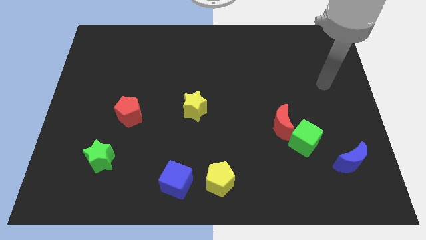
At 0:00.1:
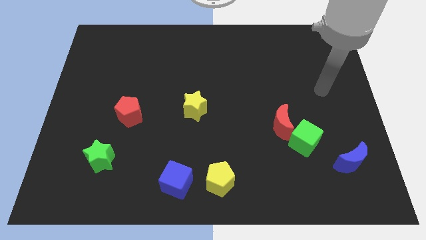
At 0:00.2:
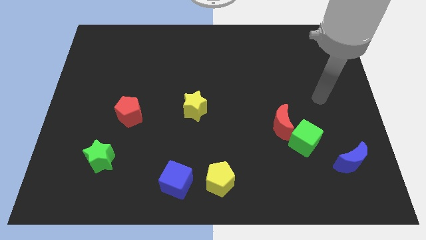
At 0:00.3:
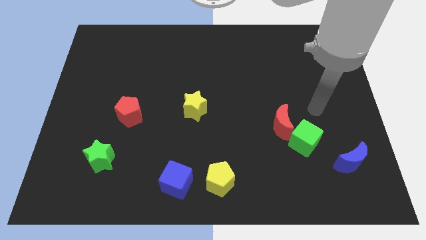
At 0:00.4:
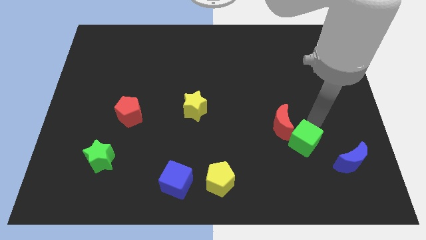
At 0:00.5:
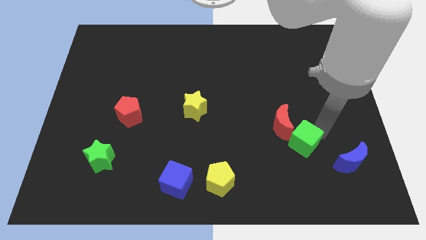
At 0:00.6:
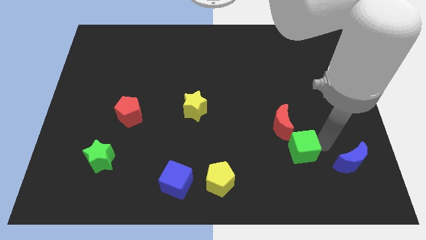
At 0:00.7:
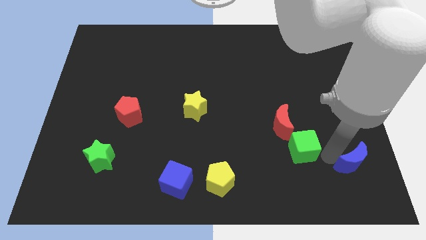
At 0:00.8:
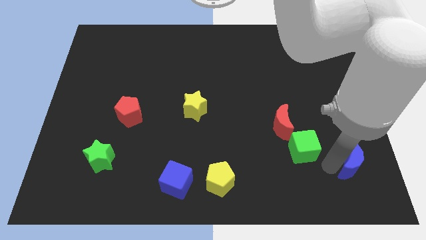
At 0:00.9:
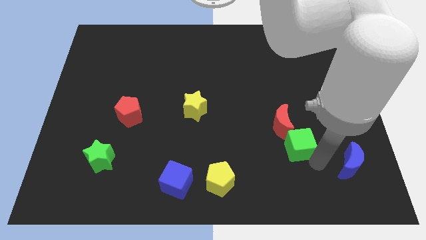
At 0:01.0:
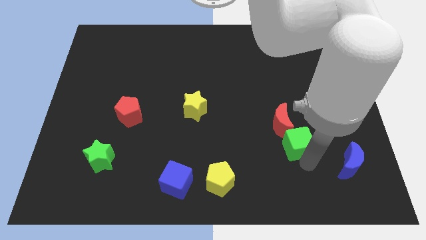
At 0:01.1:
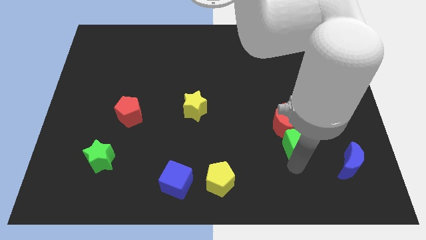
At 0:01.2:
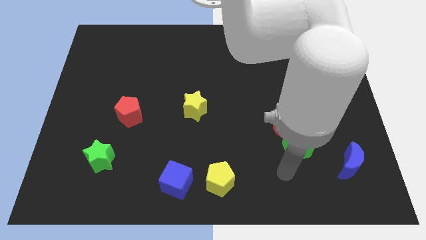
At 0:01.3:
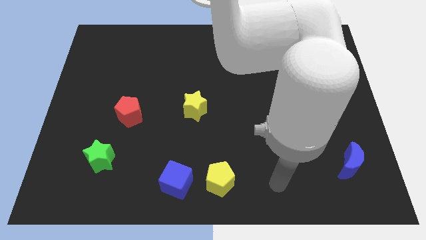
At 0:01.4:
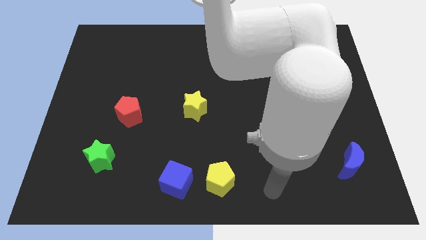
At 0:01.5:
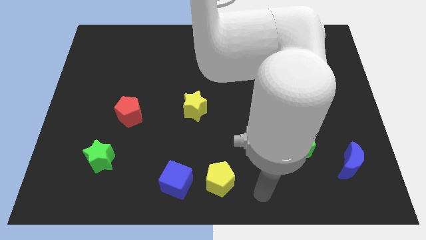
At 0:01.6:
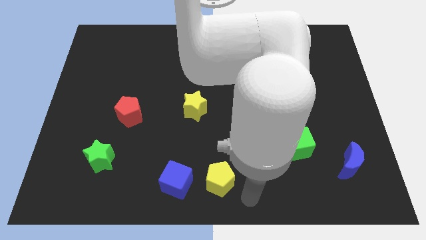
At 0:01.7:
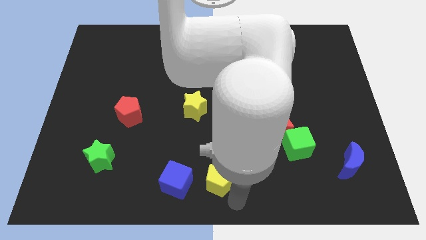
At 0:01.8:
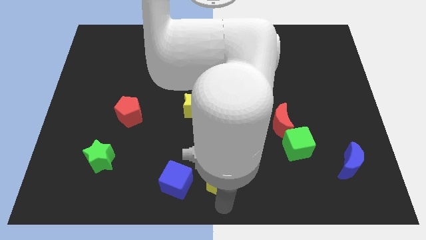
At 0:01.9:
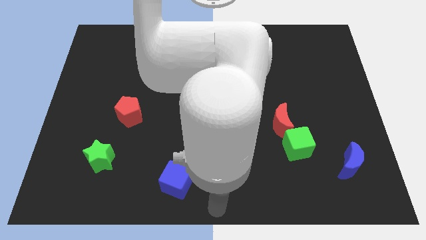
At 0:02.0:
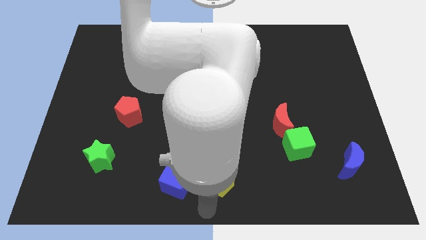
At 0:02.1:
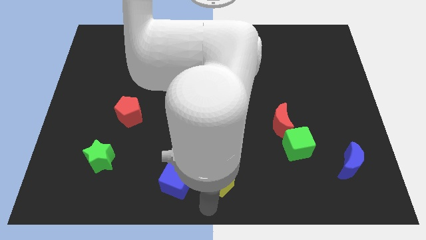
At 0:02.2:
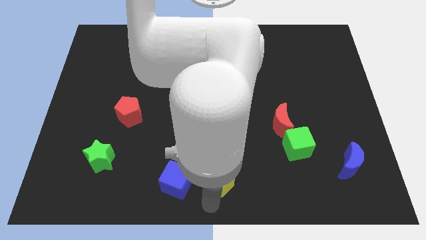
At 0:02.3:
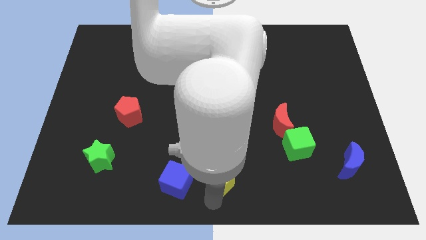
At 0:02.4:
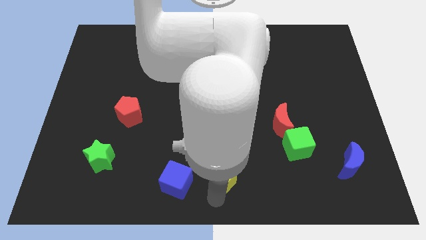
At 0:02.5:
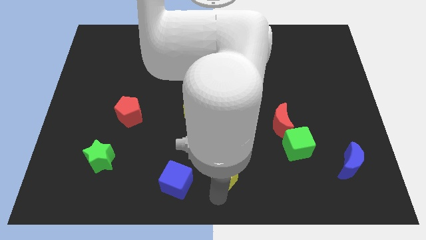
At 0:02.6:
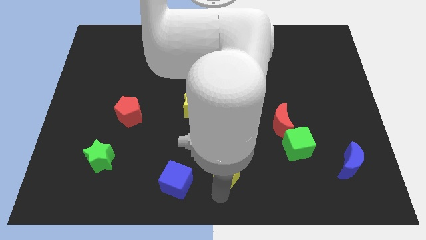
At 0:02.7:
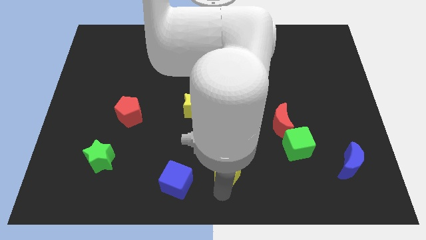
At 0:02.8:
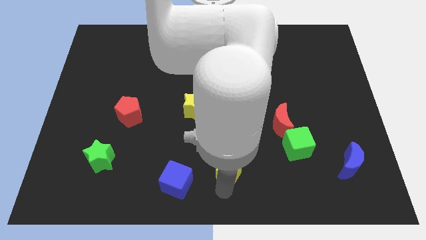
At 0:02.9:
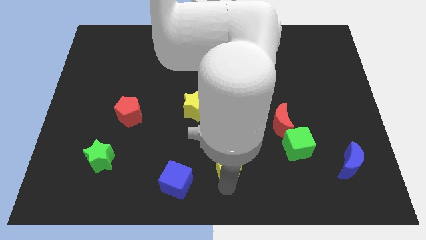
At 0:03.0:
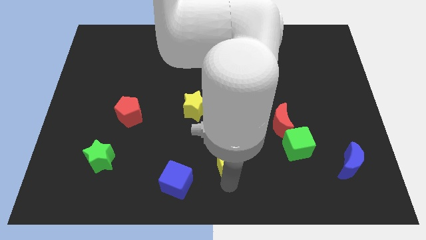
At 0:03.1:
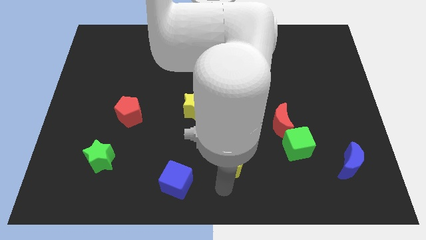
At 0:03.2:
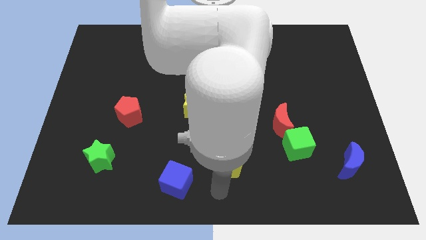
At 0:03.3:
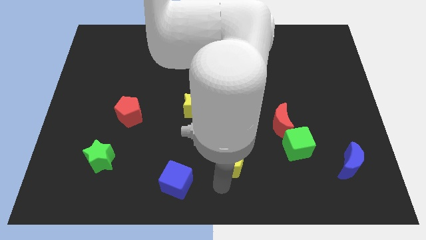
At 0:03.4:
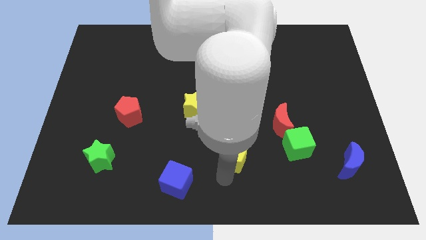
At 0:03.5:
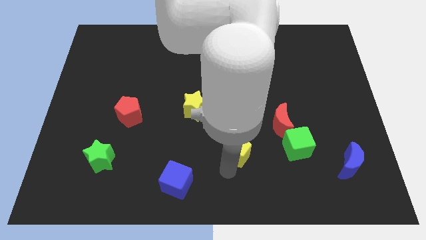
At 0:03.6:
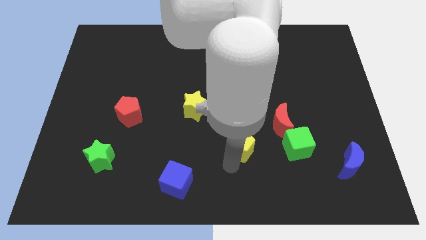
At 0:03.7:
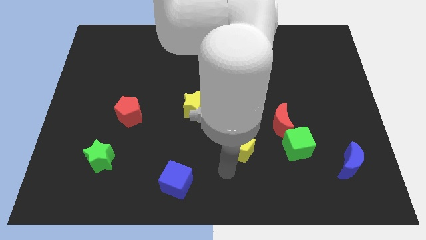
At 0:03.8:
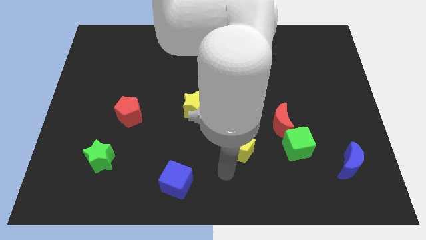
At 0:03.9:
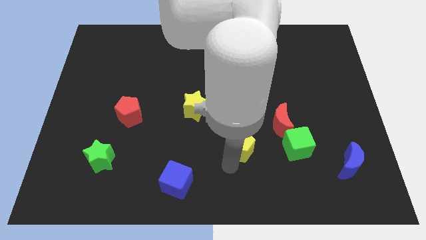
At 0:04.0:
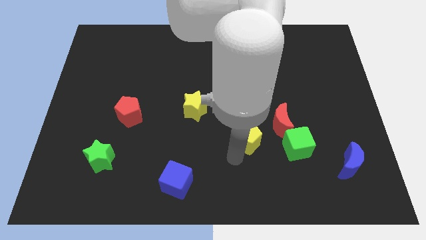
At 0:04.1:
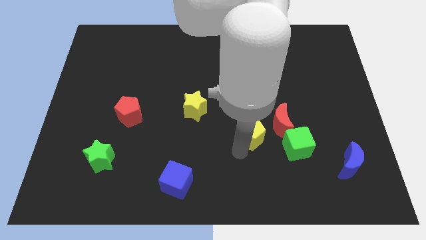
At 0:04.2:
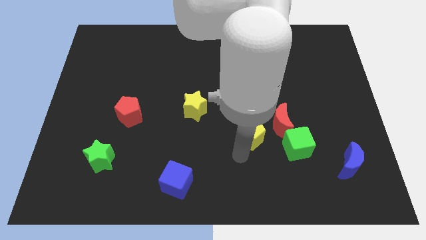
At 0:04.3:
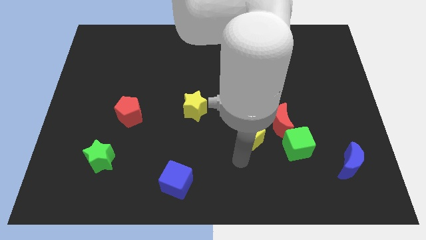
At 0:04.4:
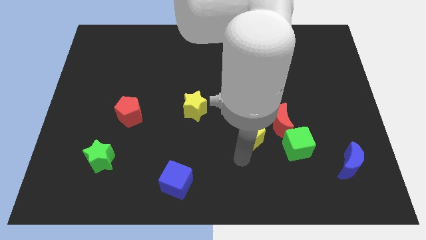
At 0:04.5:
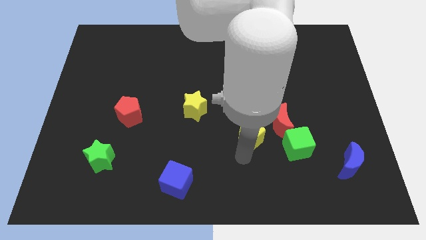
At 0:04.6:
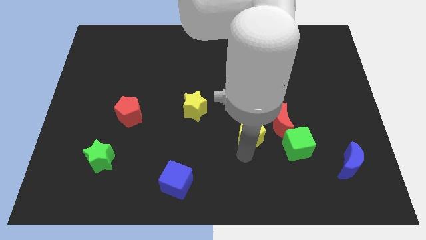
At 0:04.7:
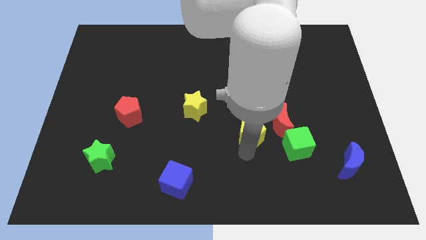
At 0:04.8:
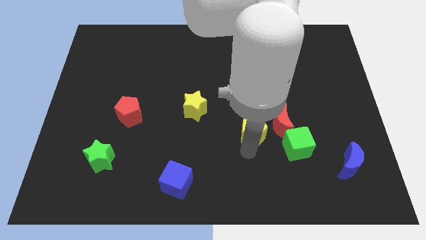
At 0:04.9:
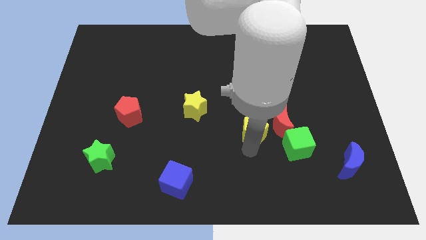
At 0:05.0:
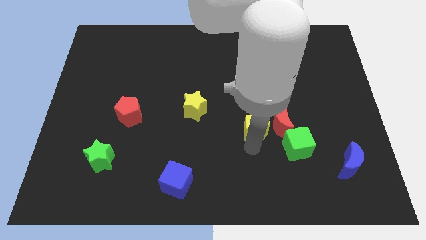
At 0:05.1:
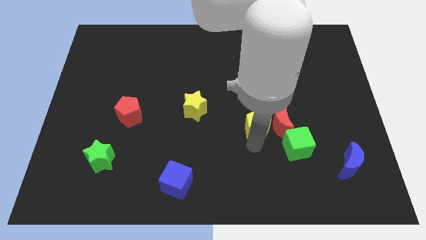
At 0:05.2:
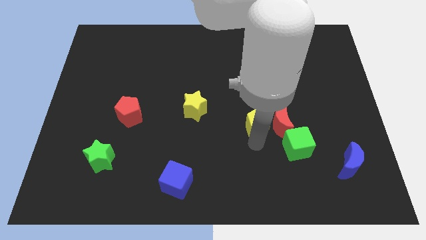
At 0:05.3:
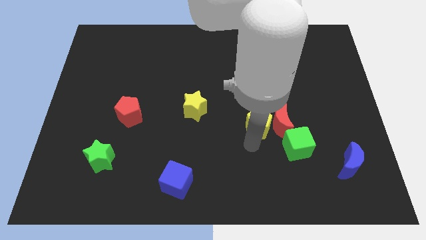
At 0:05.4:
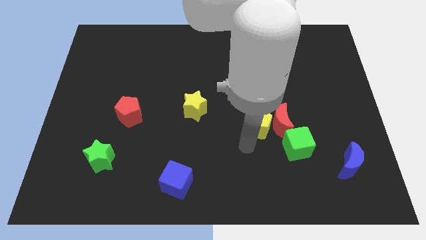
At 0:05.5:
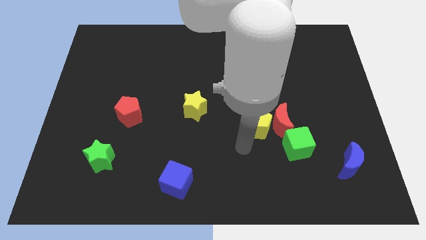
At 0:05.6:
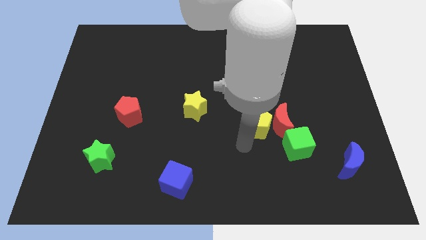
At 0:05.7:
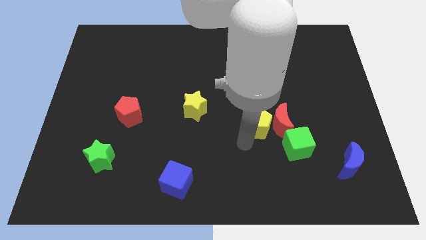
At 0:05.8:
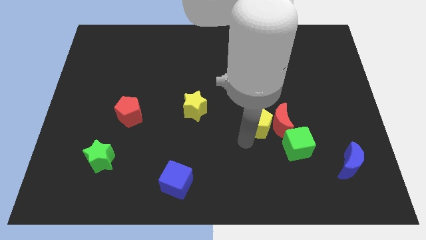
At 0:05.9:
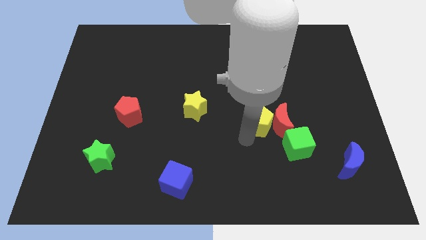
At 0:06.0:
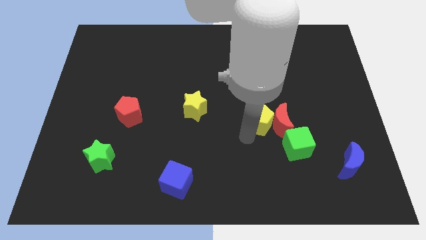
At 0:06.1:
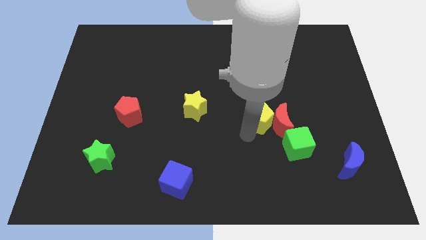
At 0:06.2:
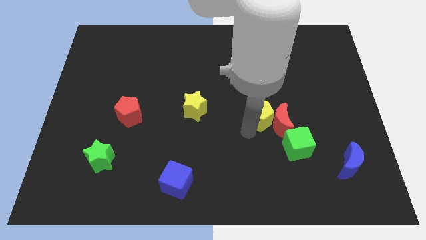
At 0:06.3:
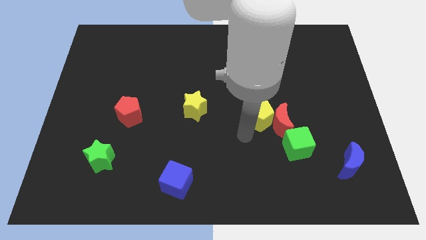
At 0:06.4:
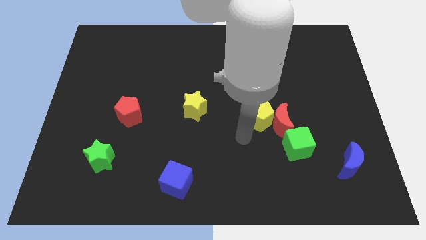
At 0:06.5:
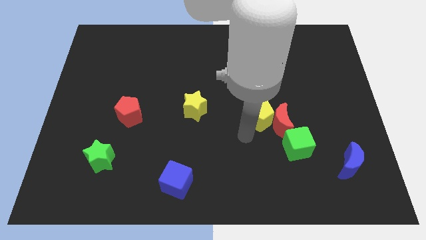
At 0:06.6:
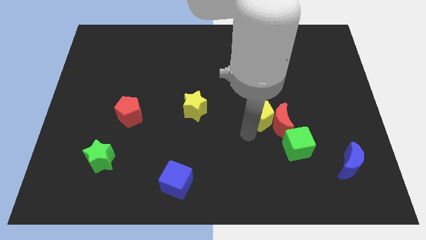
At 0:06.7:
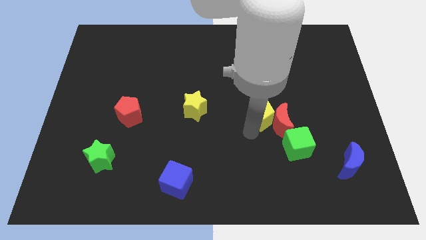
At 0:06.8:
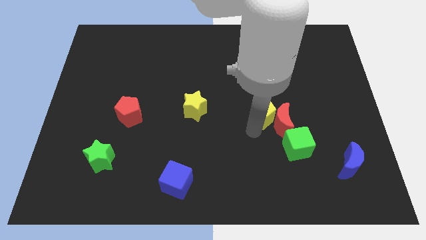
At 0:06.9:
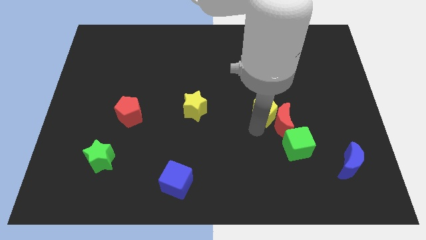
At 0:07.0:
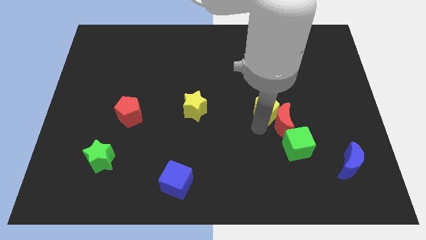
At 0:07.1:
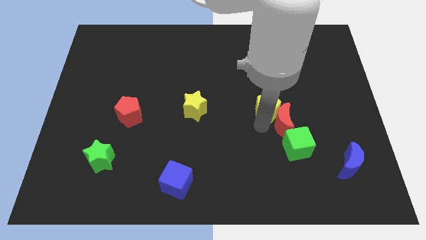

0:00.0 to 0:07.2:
slide the yellow pentagon upwards and then to the right

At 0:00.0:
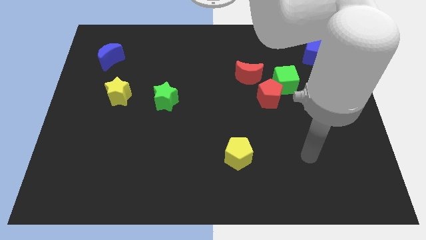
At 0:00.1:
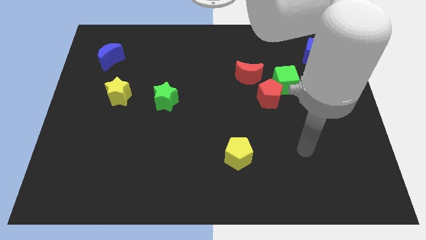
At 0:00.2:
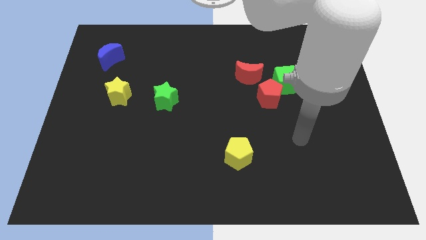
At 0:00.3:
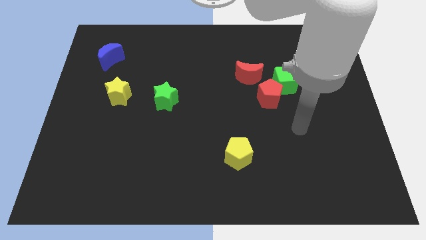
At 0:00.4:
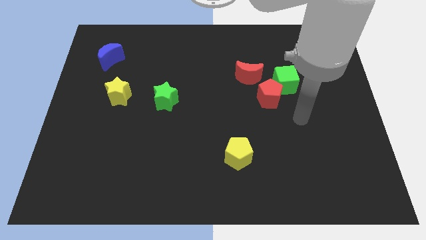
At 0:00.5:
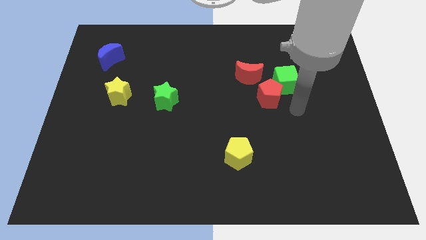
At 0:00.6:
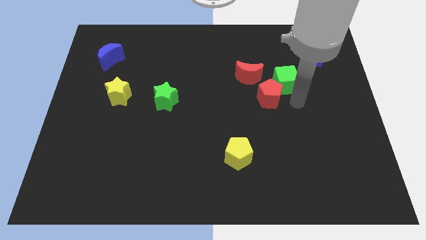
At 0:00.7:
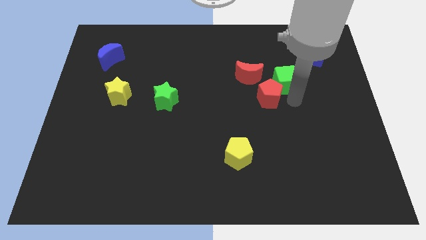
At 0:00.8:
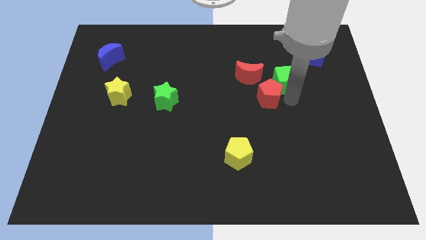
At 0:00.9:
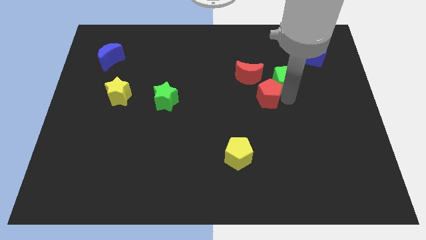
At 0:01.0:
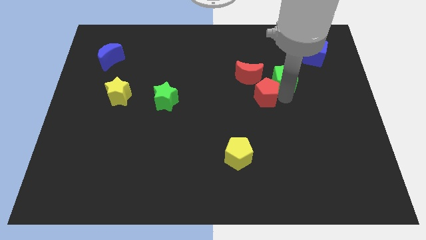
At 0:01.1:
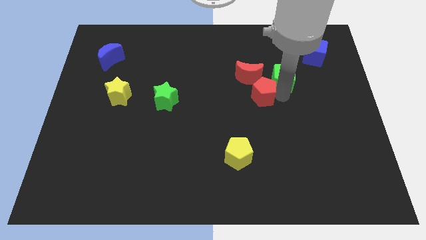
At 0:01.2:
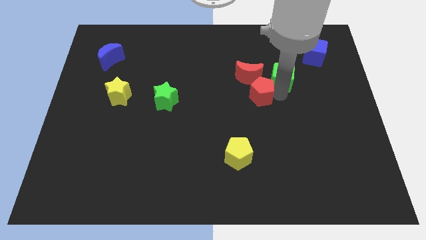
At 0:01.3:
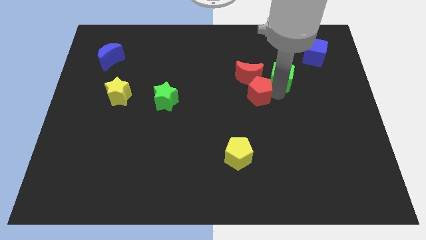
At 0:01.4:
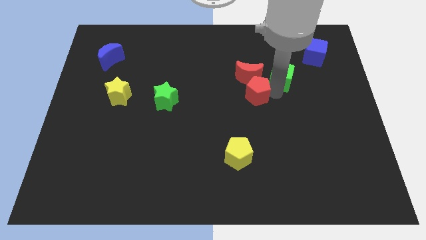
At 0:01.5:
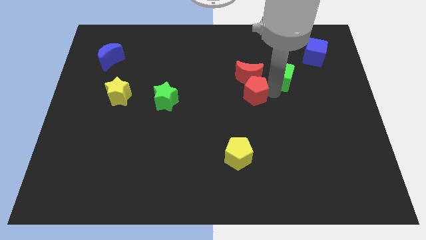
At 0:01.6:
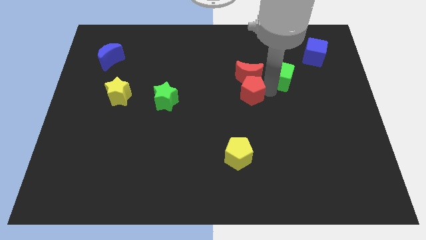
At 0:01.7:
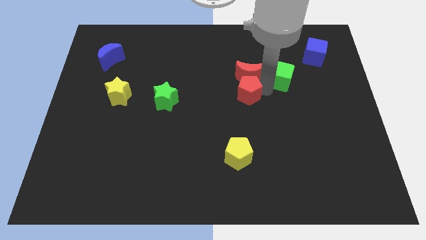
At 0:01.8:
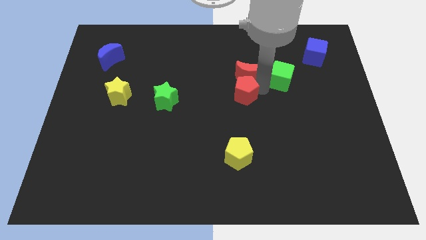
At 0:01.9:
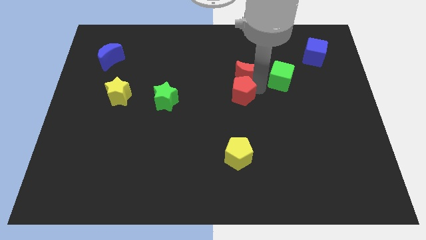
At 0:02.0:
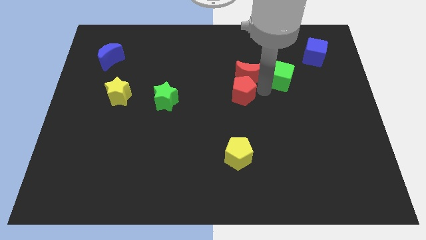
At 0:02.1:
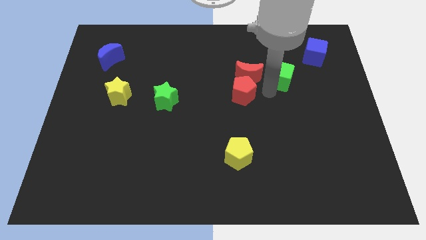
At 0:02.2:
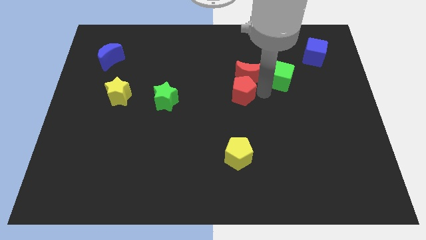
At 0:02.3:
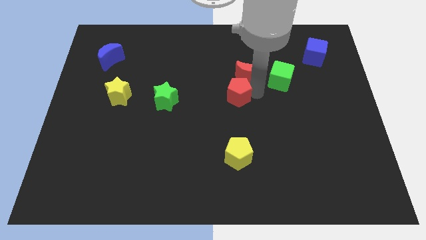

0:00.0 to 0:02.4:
slightly slide the red pentagon to the left
